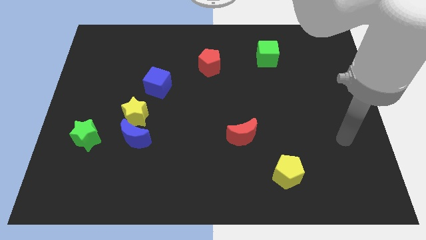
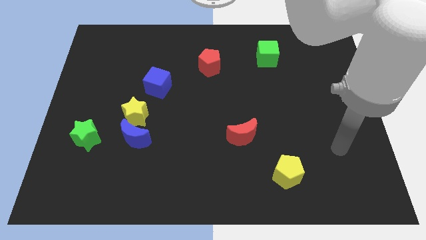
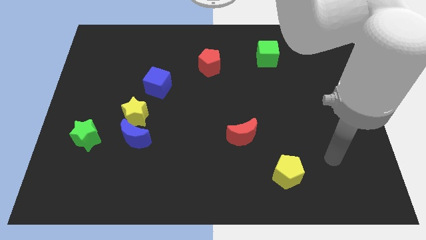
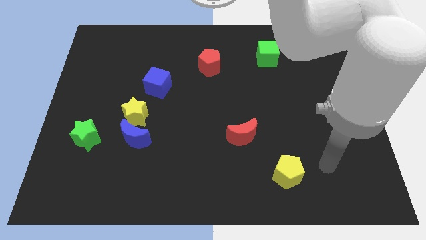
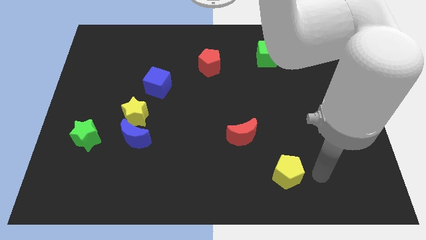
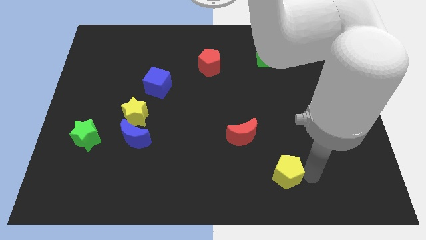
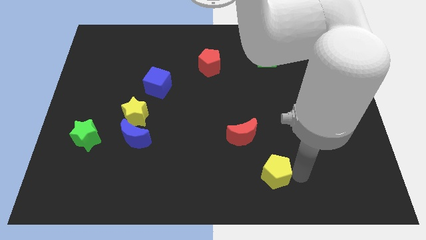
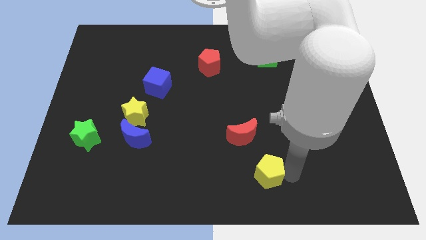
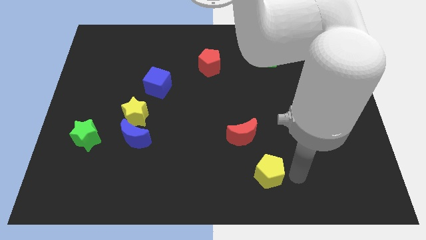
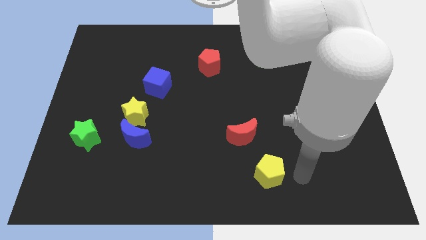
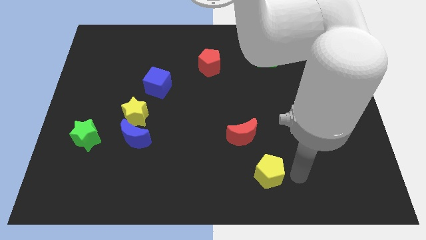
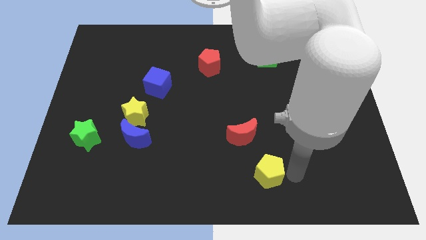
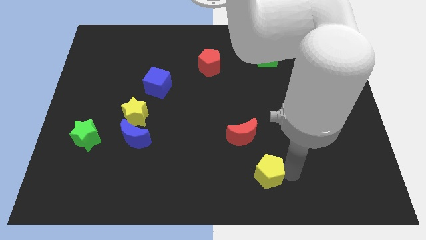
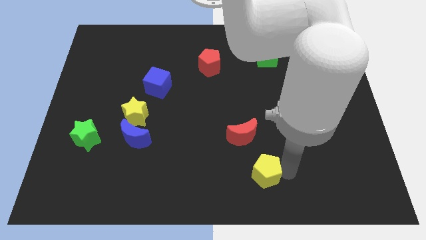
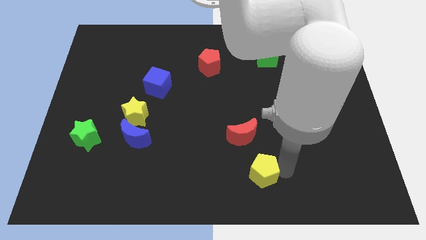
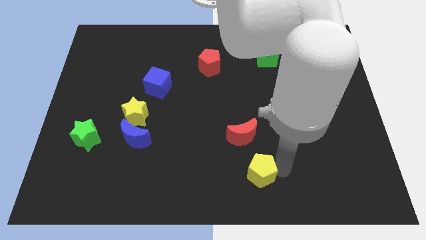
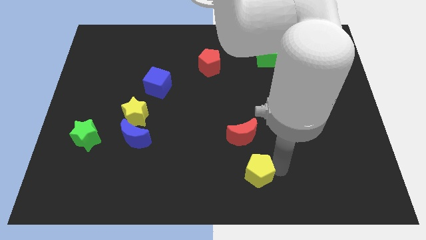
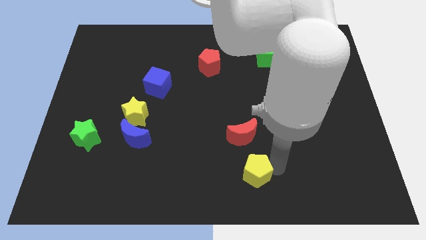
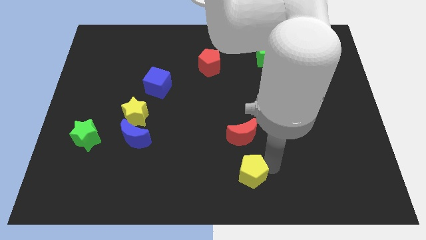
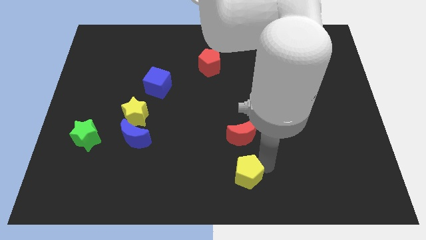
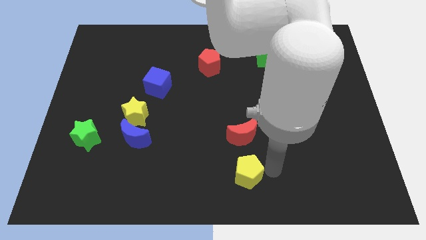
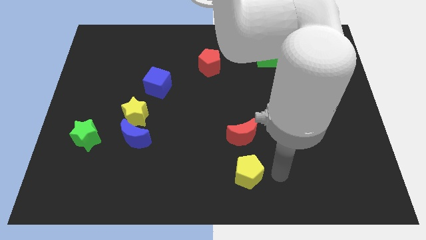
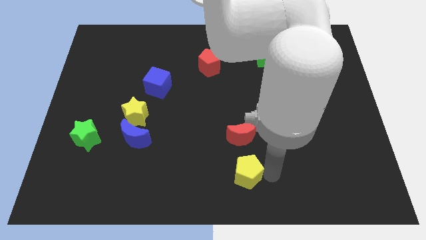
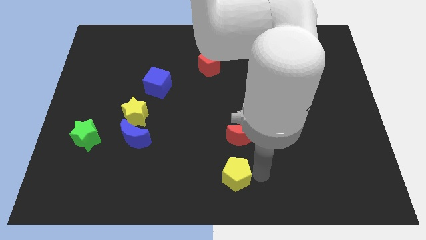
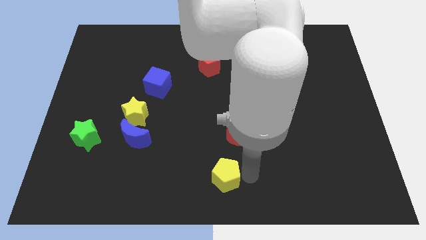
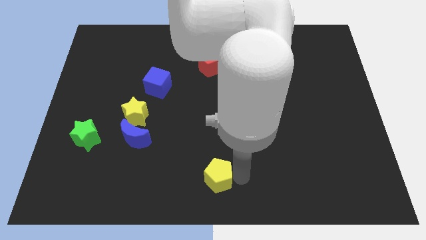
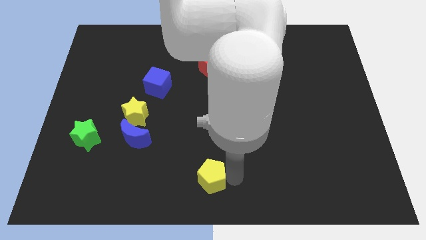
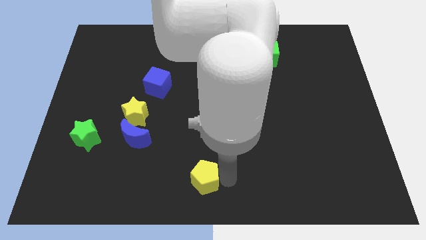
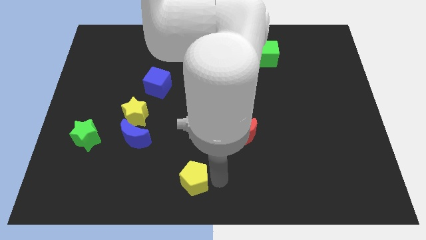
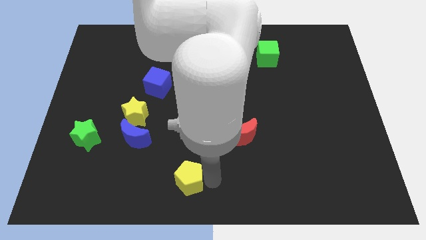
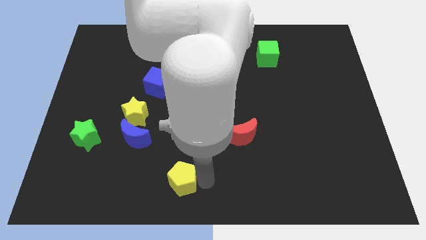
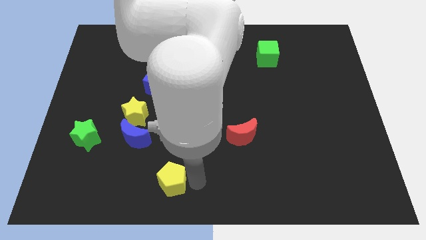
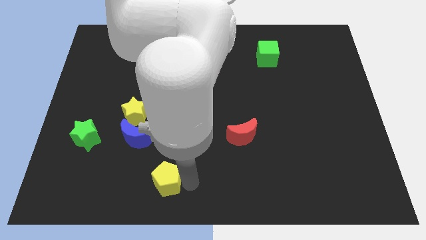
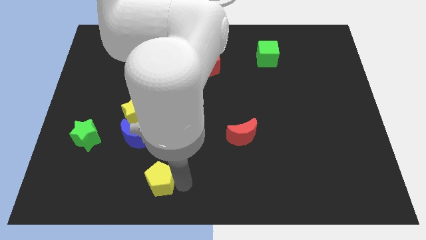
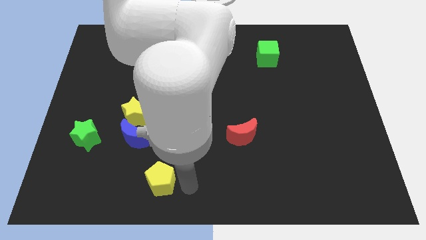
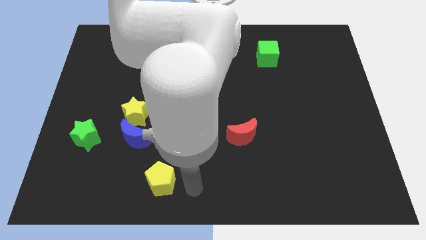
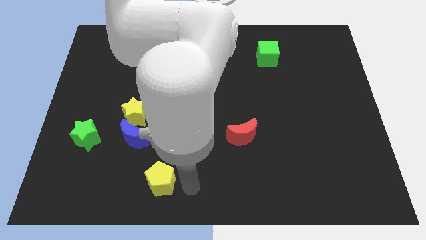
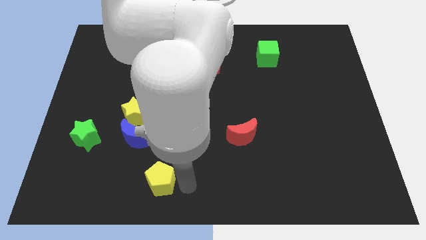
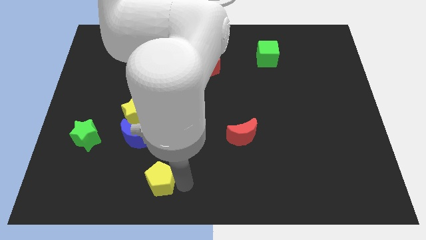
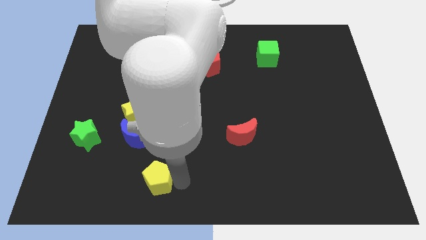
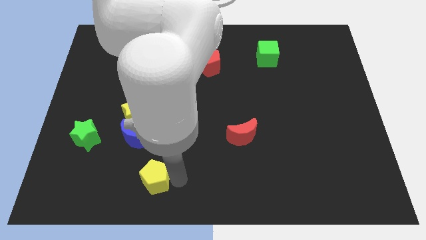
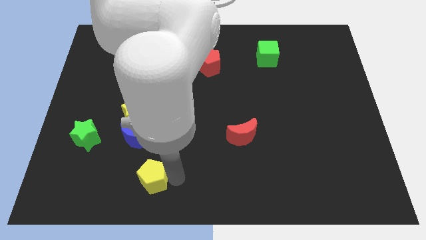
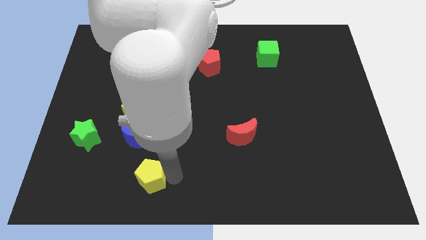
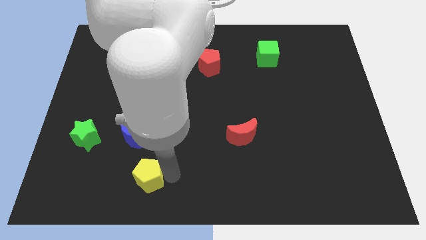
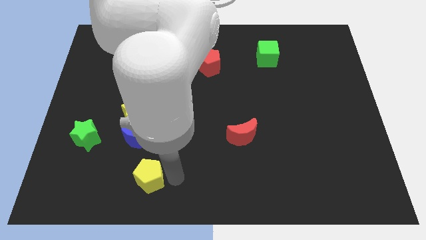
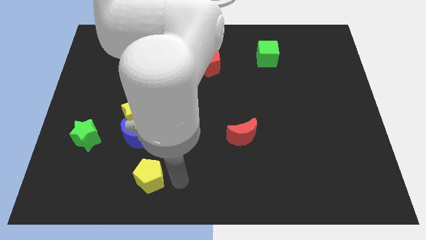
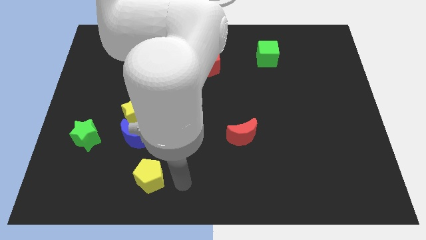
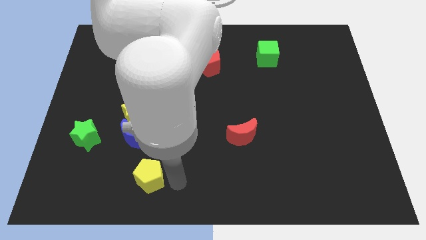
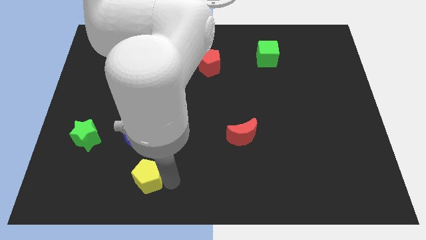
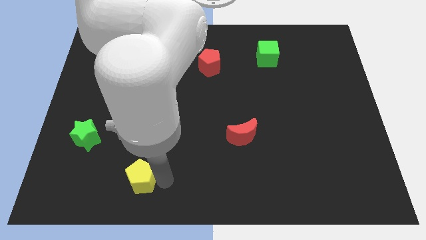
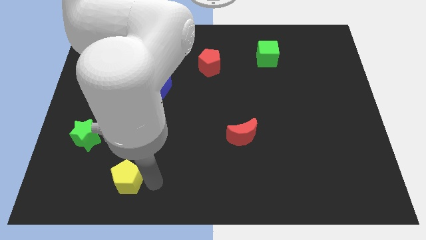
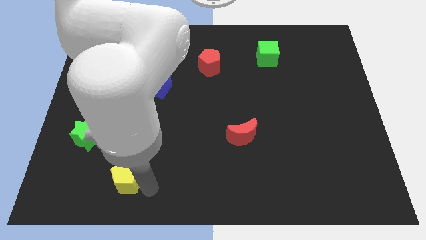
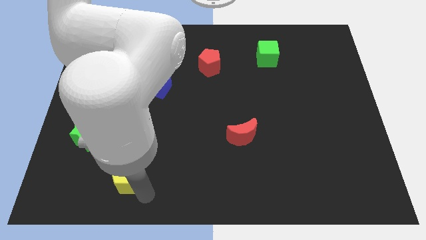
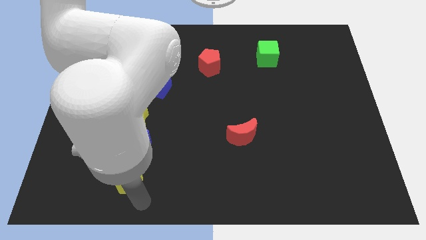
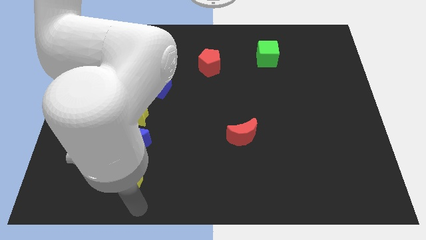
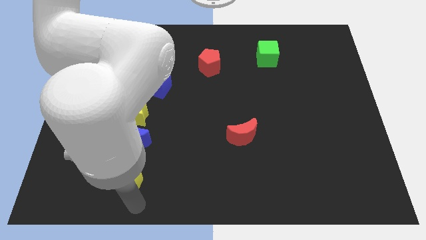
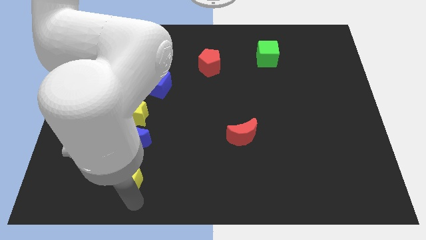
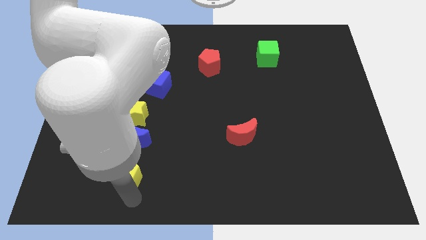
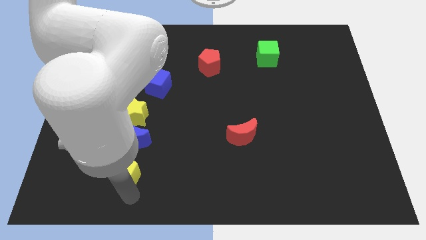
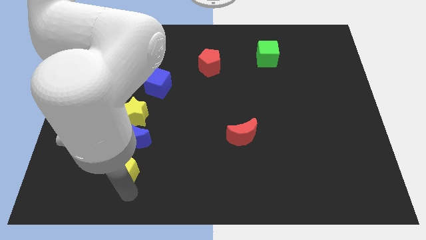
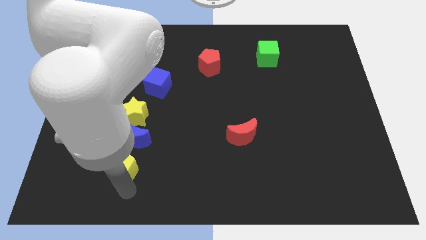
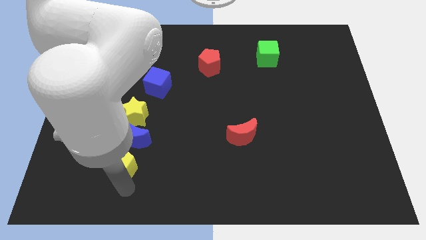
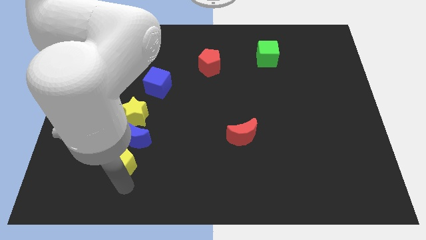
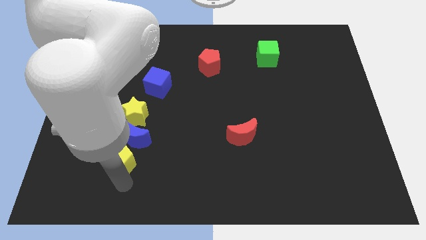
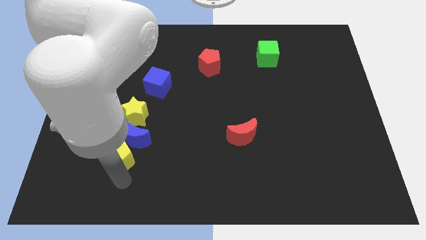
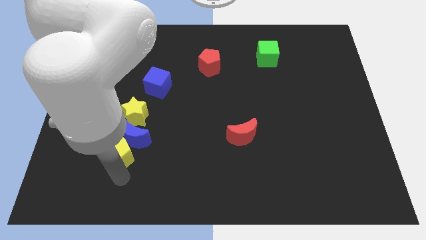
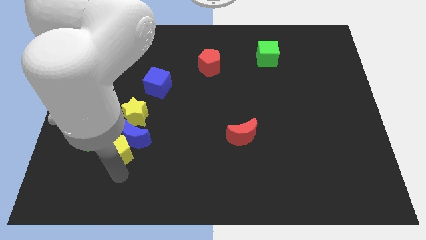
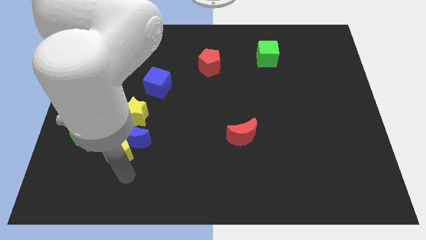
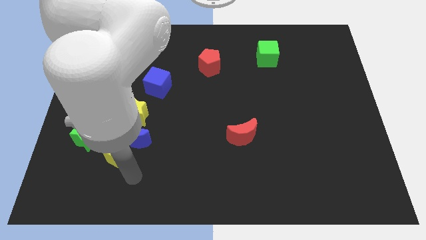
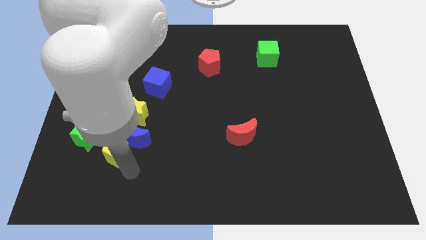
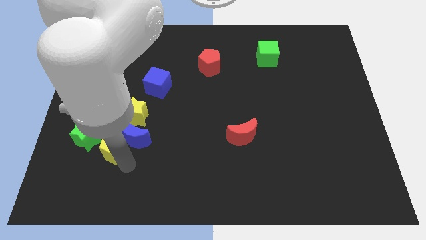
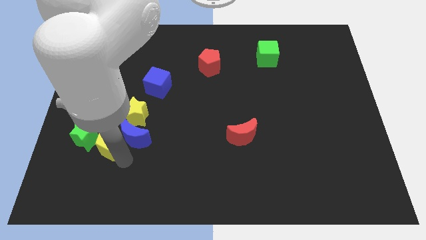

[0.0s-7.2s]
slide the yellow pentagon to the top left side of the blue moon
